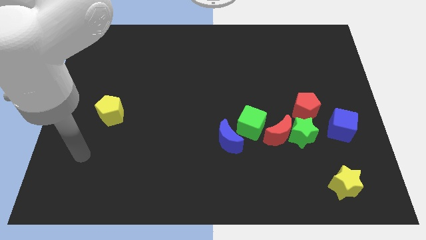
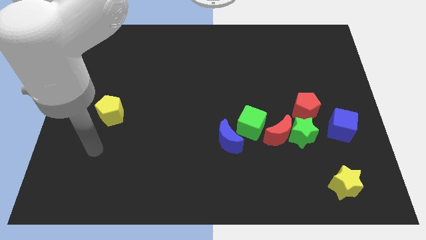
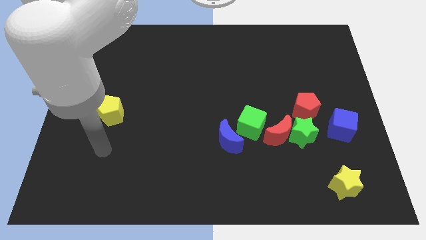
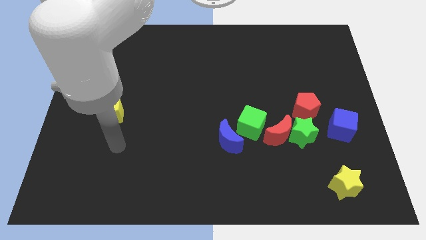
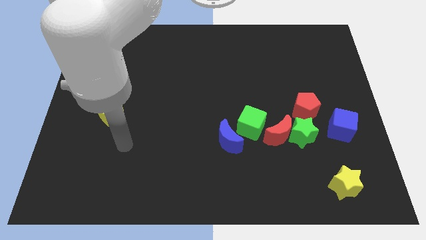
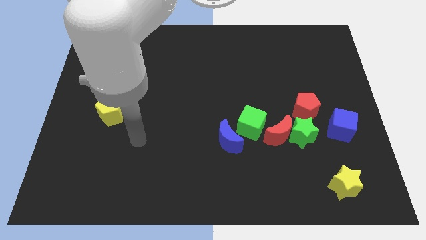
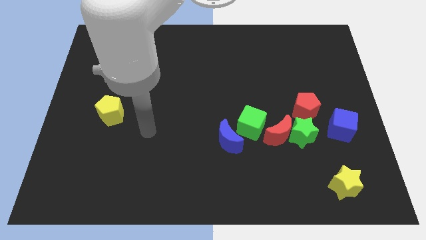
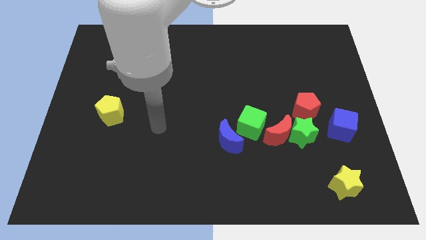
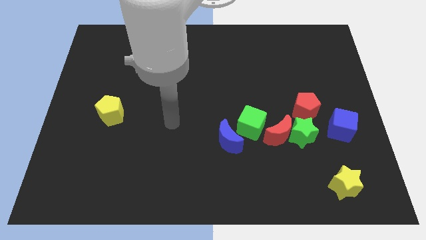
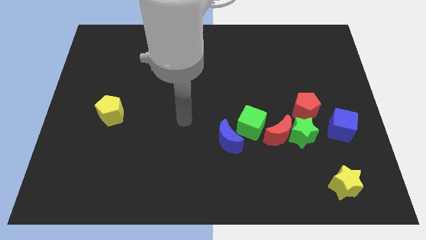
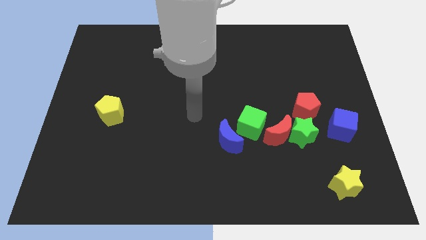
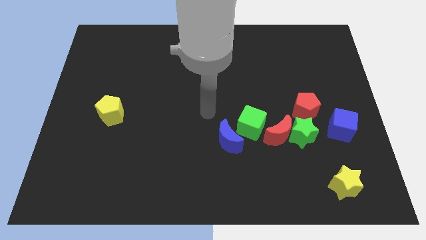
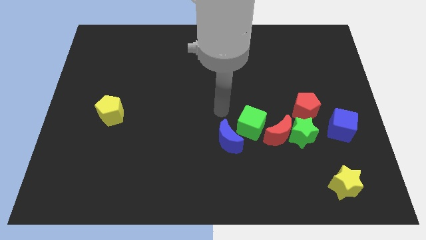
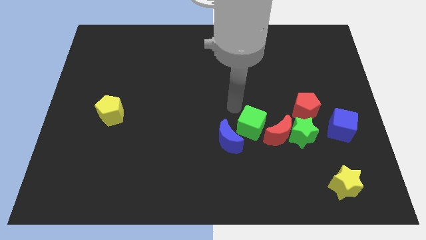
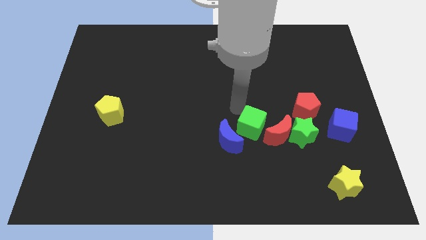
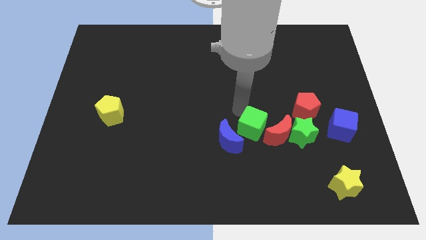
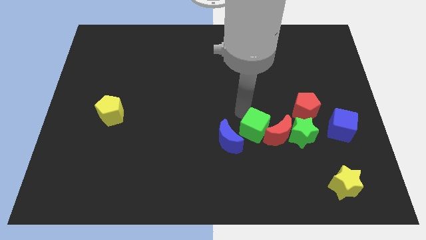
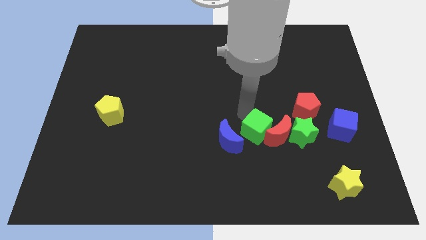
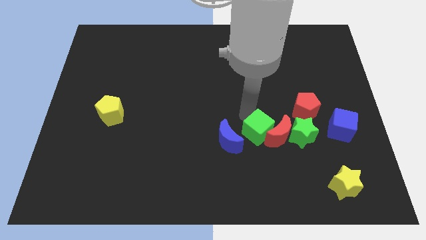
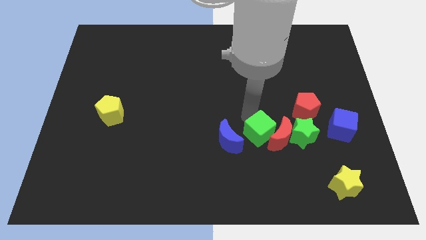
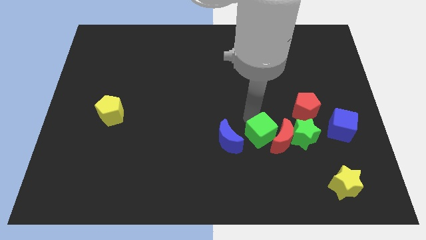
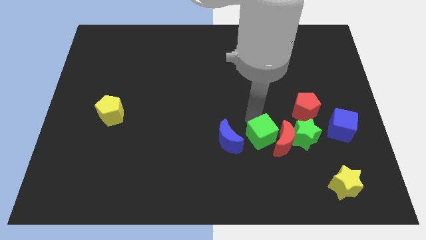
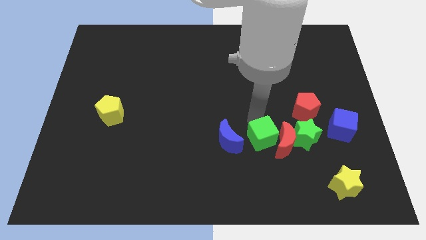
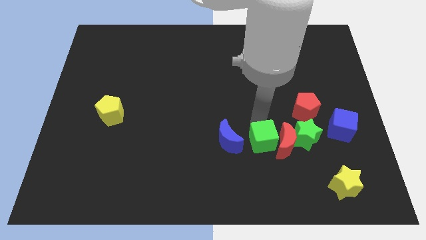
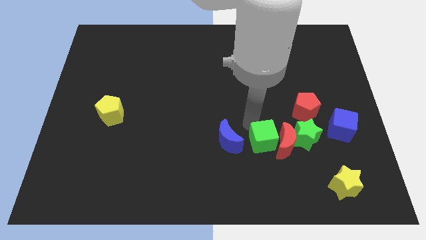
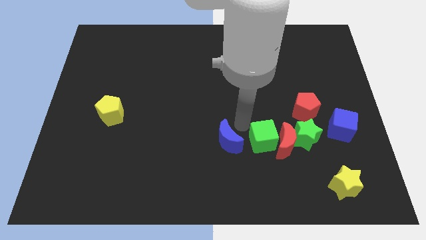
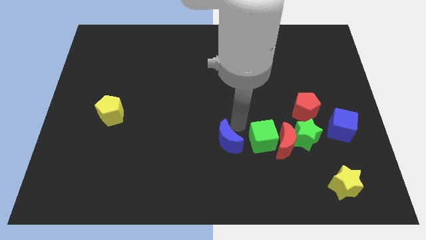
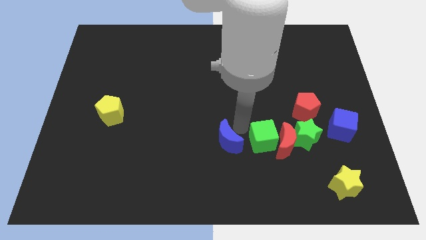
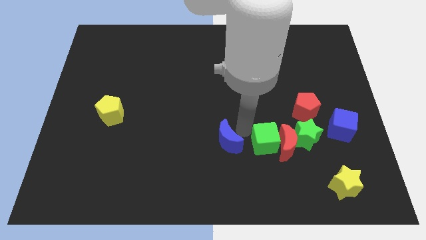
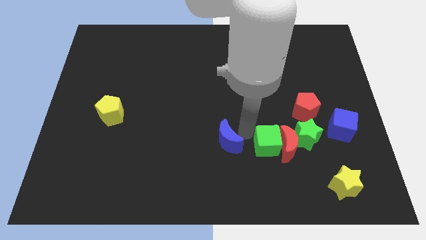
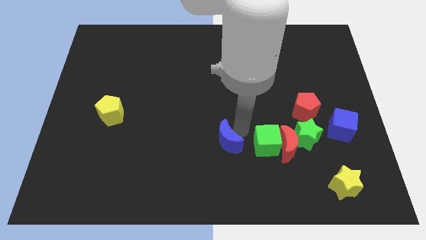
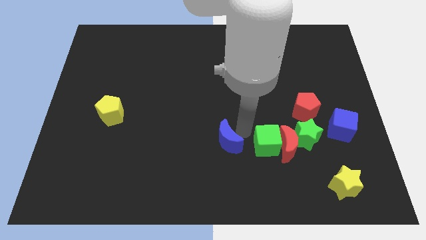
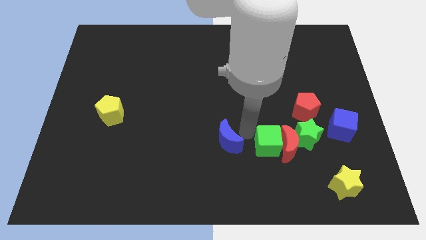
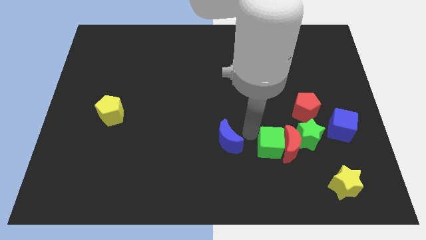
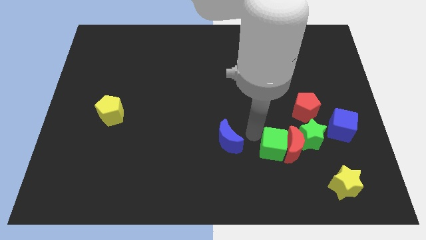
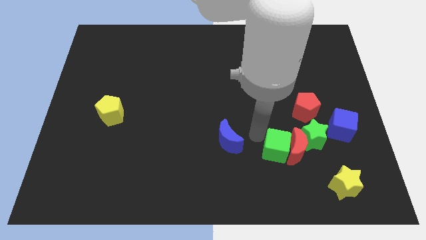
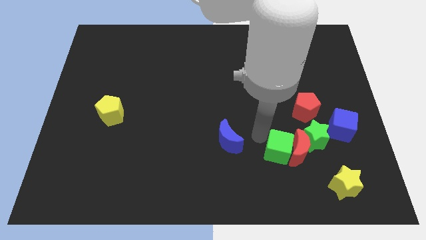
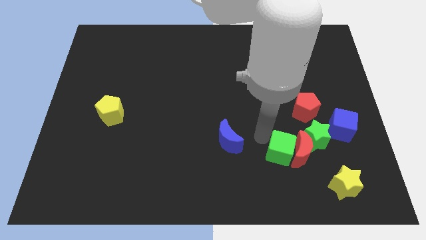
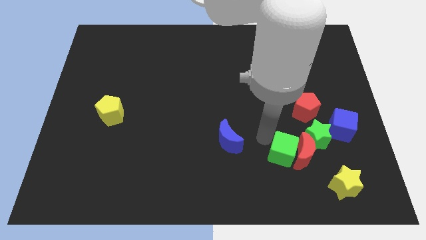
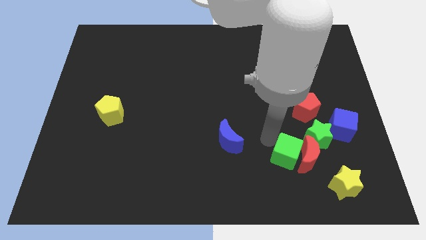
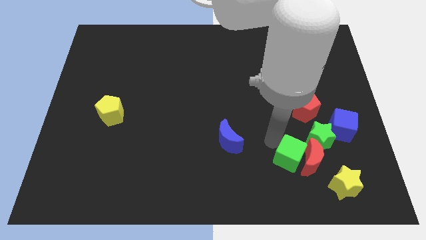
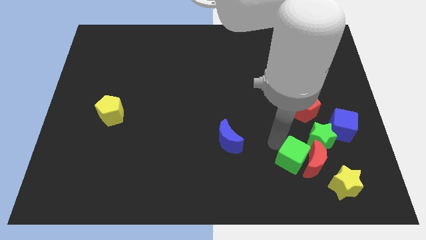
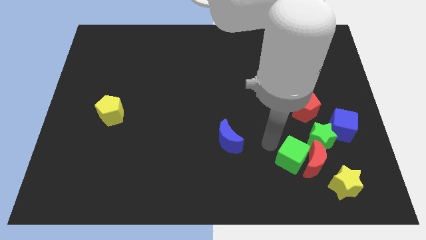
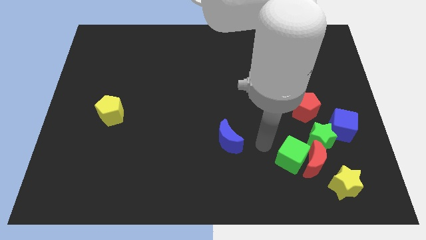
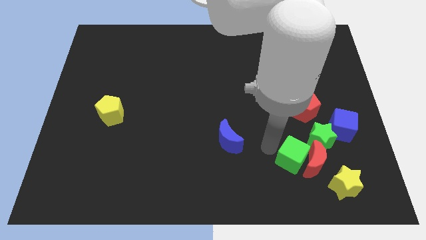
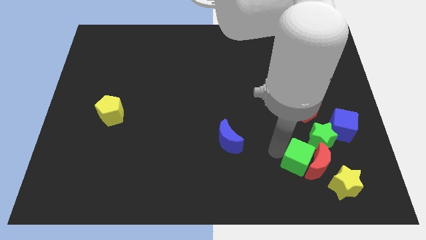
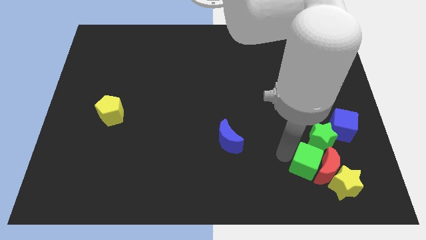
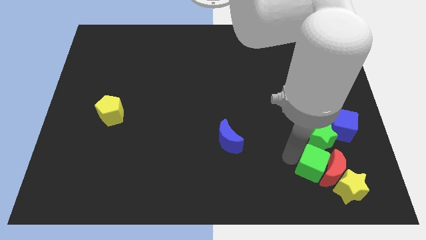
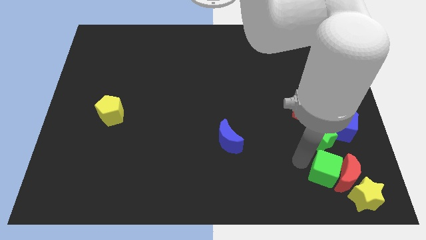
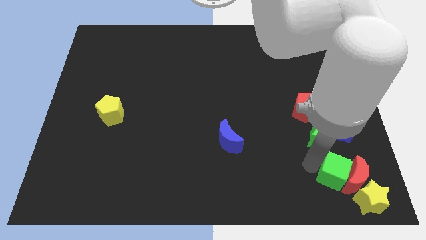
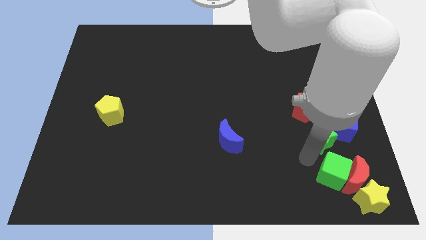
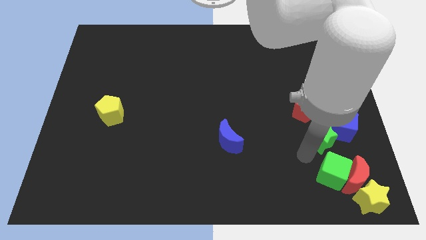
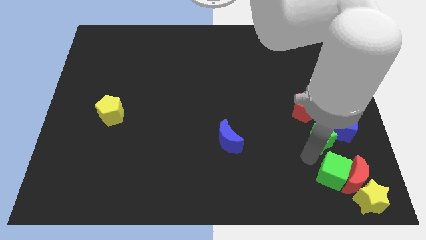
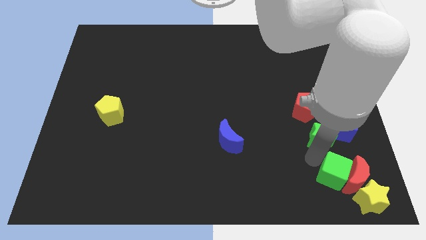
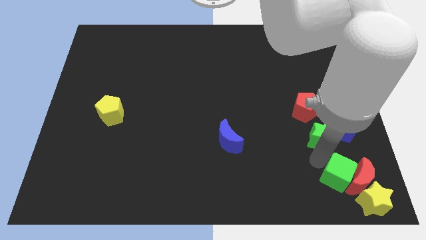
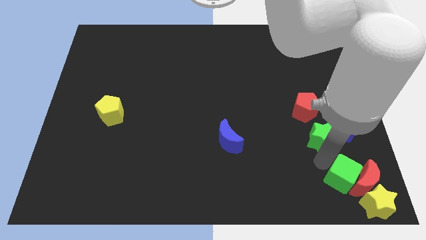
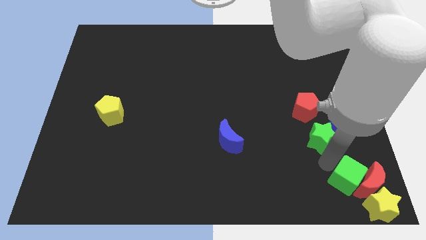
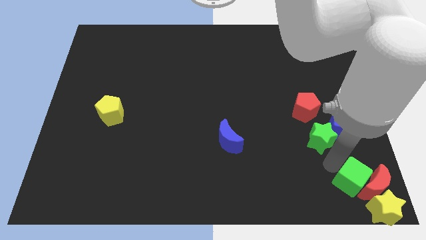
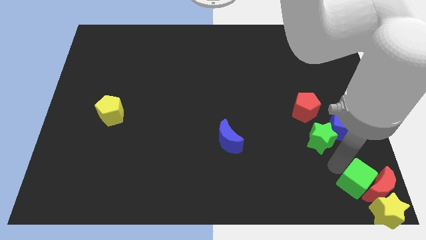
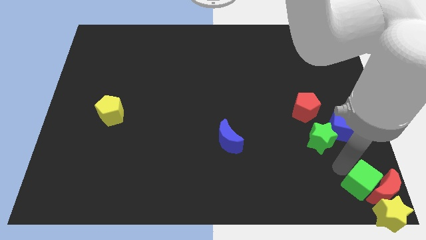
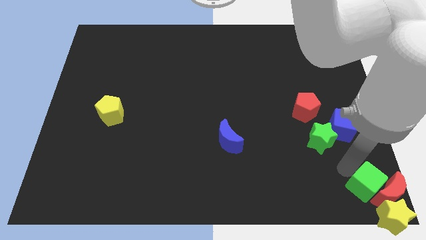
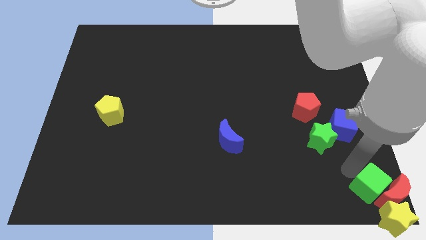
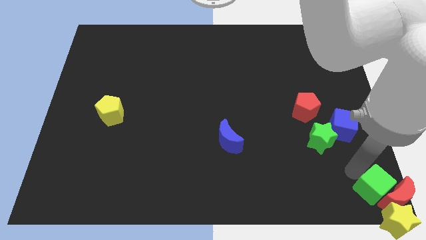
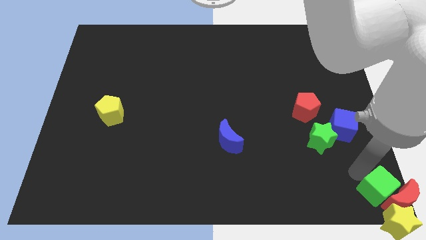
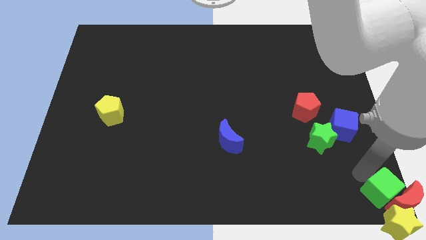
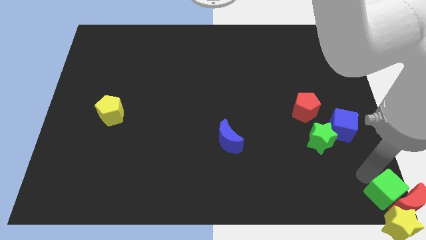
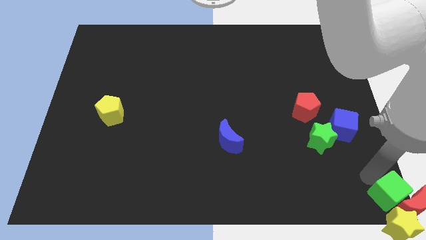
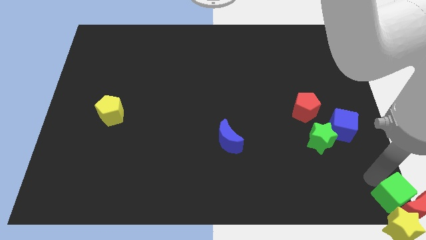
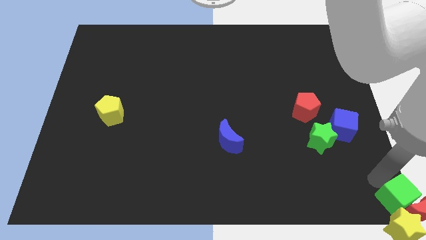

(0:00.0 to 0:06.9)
put the green cube next to the yellow star
